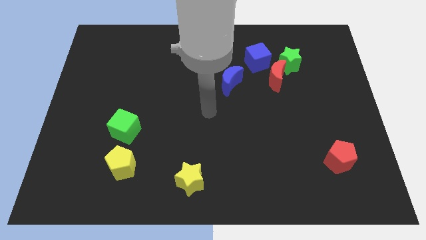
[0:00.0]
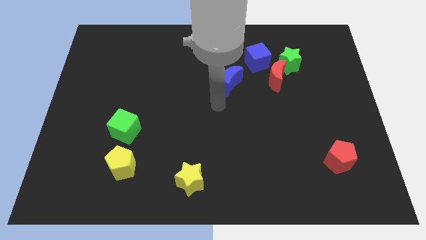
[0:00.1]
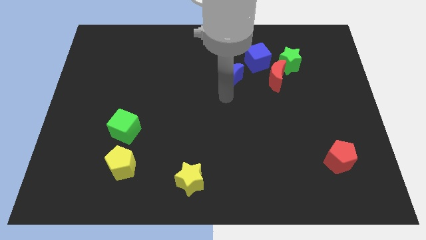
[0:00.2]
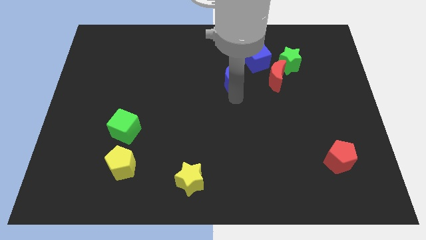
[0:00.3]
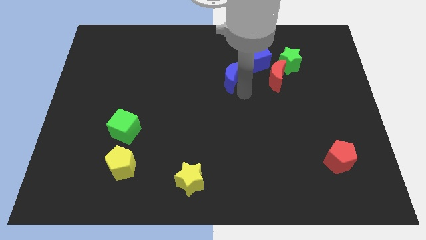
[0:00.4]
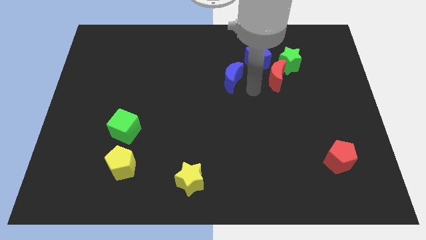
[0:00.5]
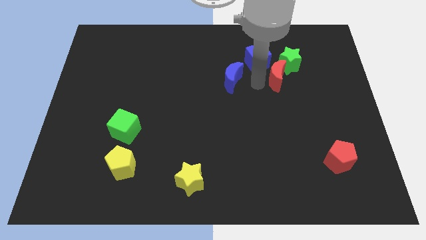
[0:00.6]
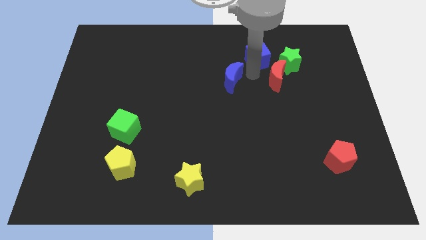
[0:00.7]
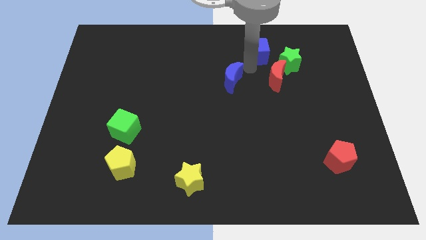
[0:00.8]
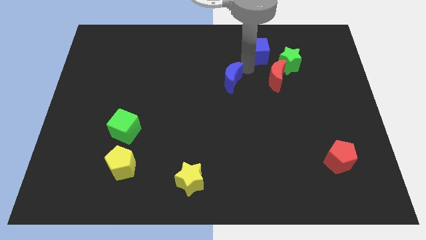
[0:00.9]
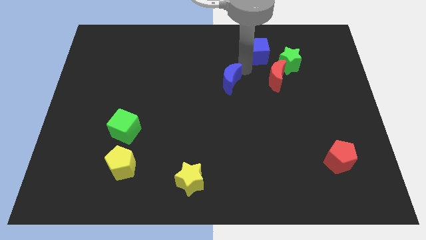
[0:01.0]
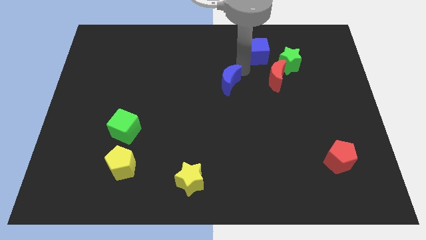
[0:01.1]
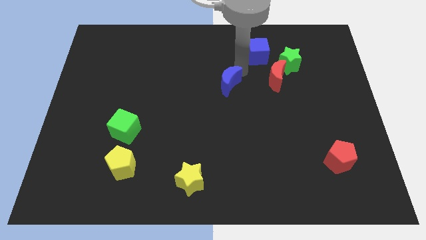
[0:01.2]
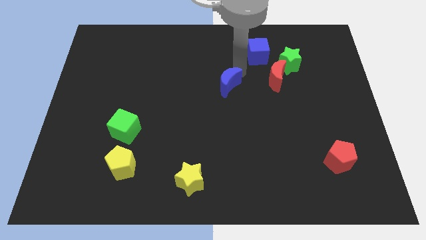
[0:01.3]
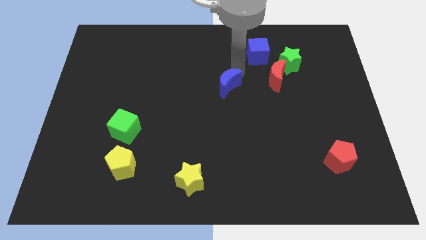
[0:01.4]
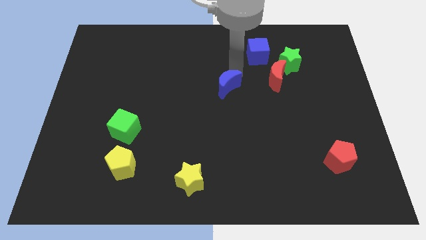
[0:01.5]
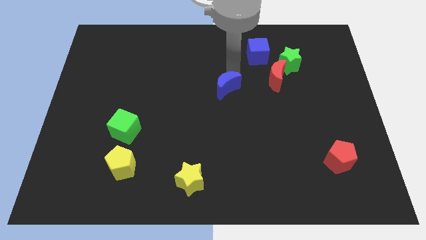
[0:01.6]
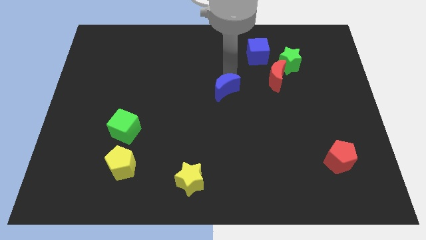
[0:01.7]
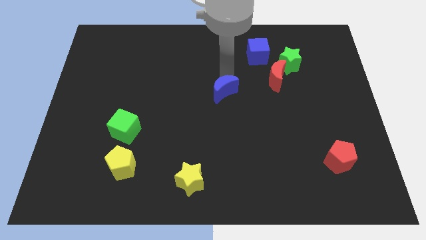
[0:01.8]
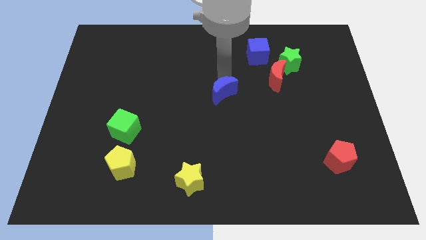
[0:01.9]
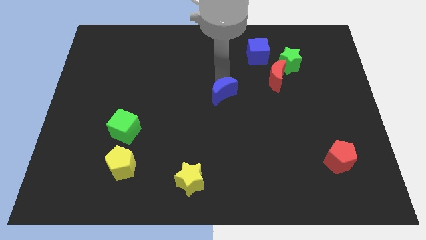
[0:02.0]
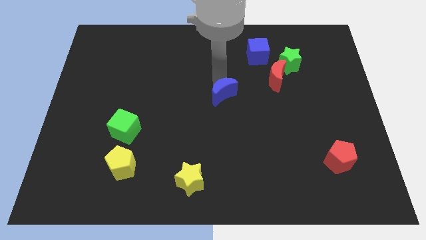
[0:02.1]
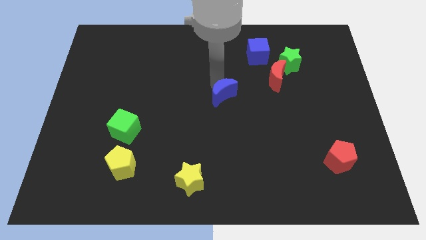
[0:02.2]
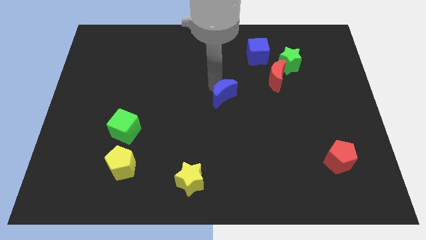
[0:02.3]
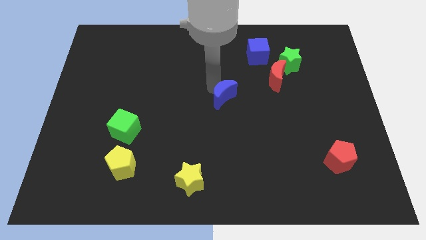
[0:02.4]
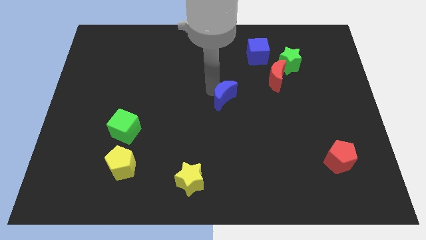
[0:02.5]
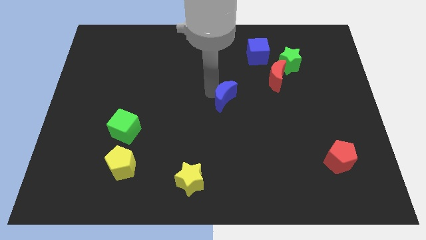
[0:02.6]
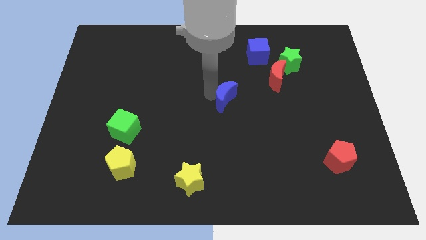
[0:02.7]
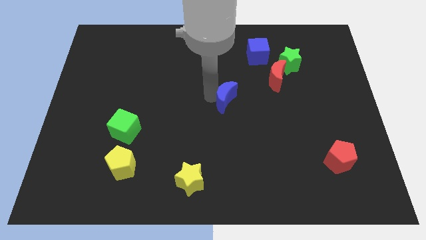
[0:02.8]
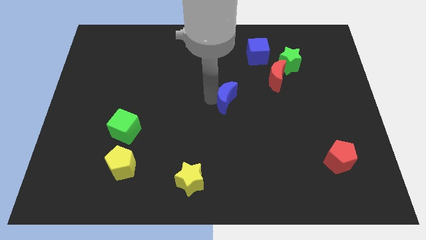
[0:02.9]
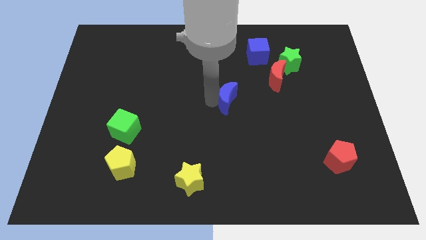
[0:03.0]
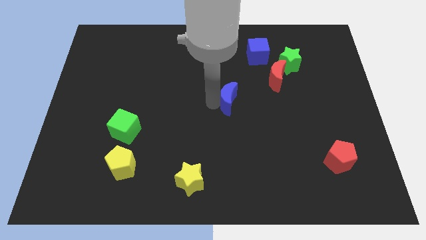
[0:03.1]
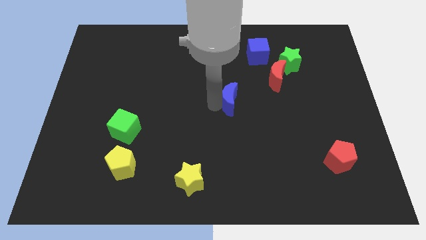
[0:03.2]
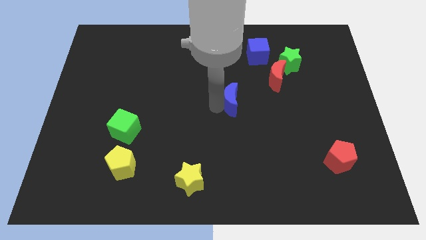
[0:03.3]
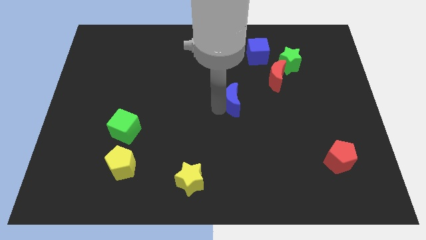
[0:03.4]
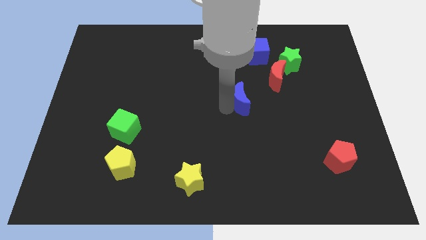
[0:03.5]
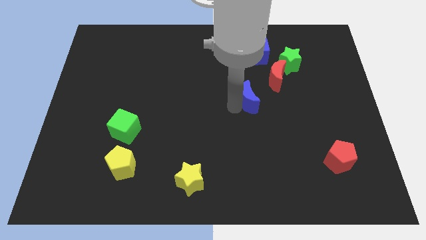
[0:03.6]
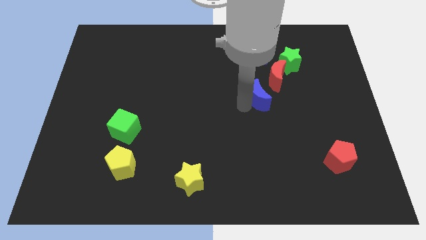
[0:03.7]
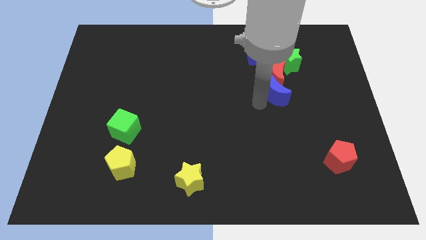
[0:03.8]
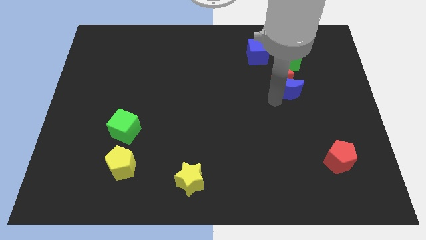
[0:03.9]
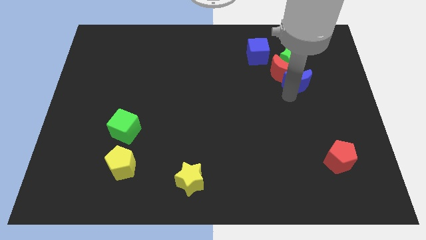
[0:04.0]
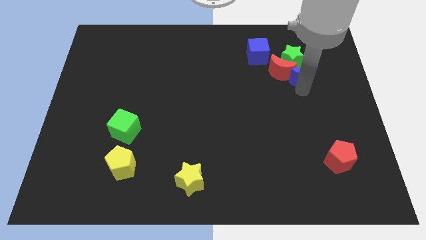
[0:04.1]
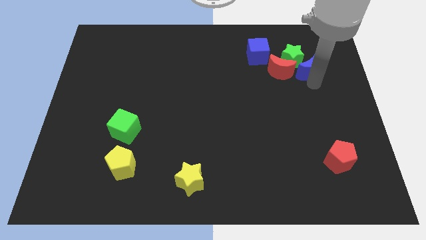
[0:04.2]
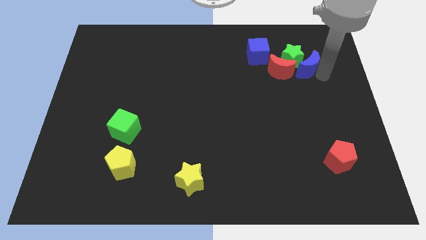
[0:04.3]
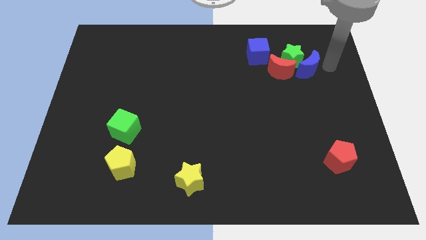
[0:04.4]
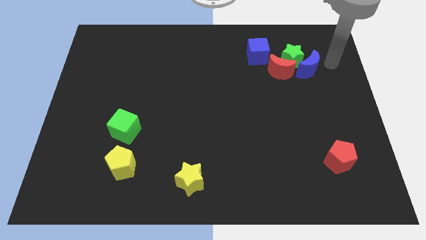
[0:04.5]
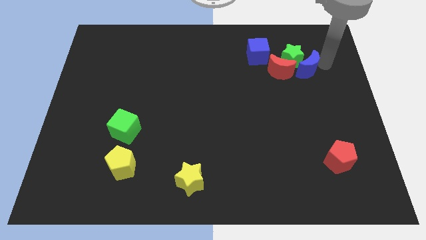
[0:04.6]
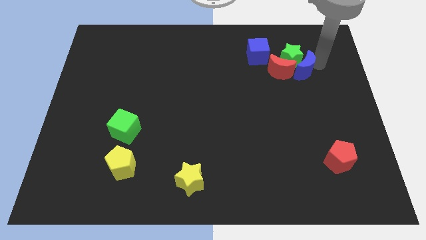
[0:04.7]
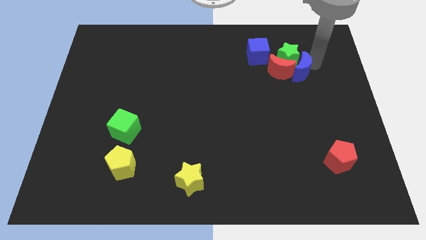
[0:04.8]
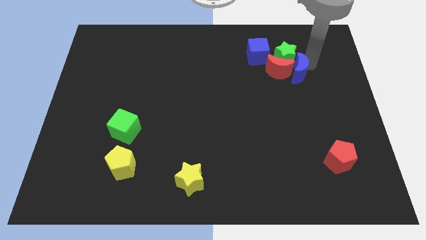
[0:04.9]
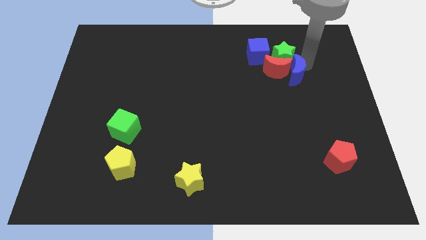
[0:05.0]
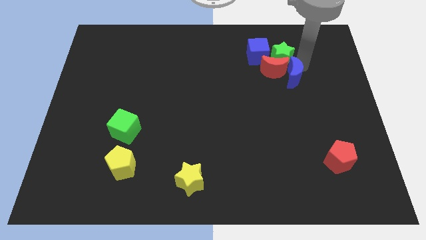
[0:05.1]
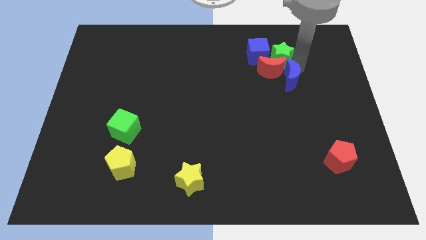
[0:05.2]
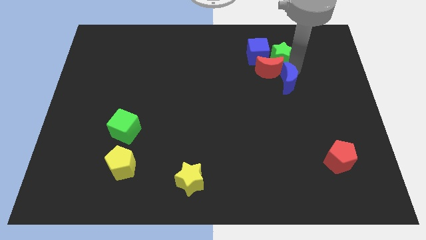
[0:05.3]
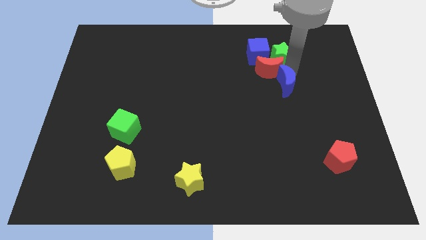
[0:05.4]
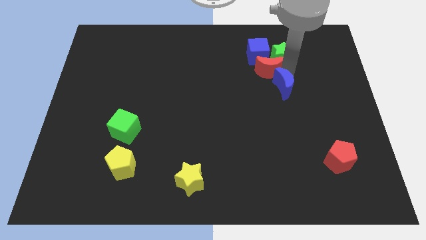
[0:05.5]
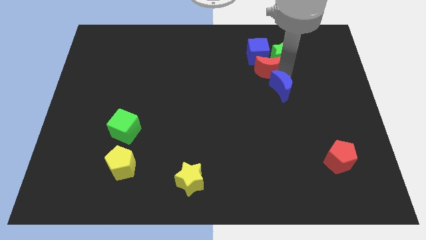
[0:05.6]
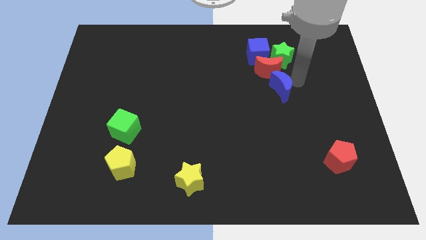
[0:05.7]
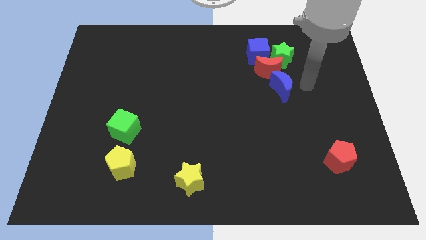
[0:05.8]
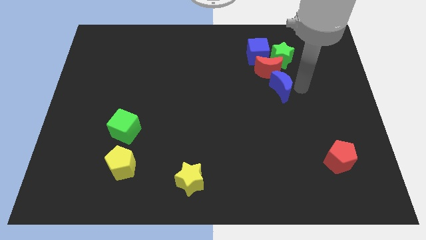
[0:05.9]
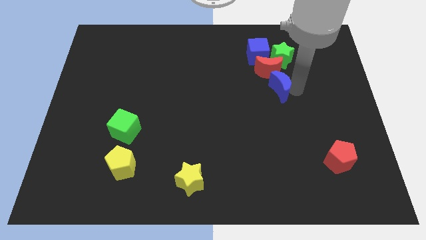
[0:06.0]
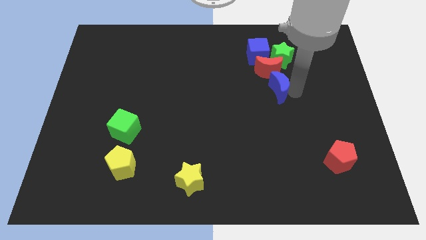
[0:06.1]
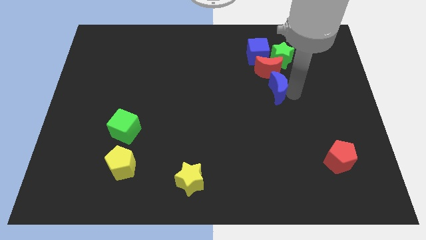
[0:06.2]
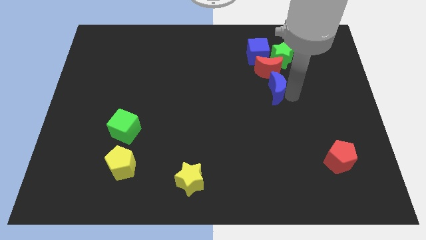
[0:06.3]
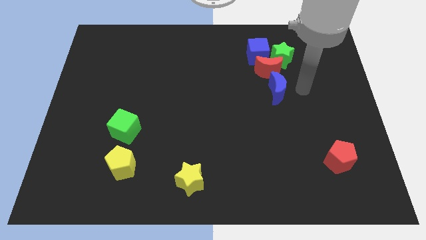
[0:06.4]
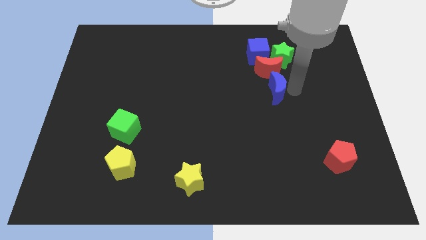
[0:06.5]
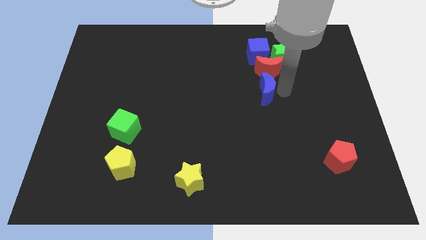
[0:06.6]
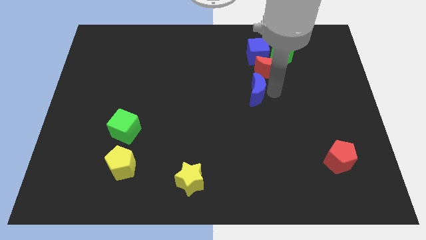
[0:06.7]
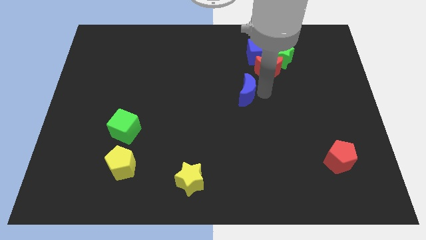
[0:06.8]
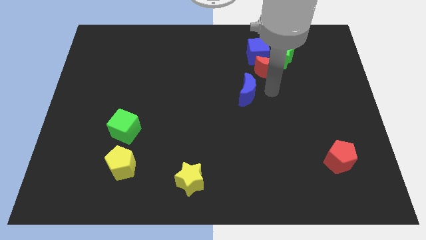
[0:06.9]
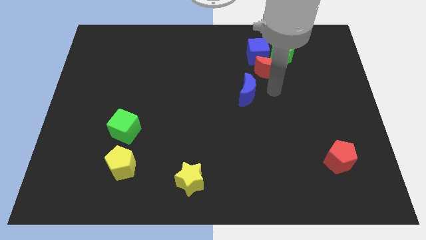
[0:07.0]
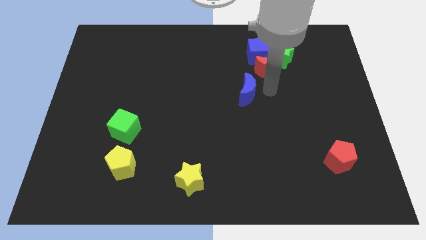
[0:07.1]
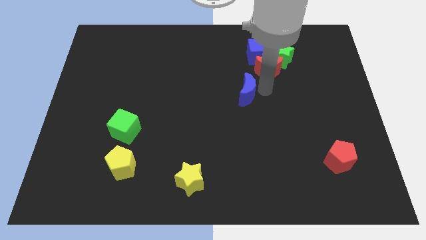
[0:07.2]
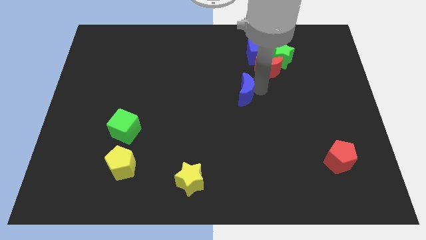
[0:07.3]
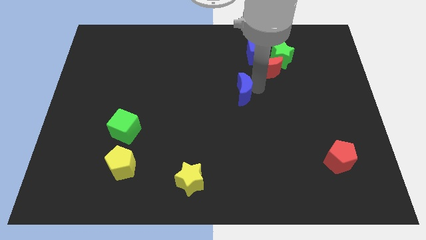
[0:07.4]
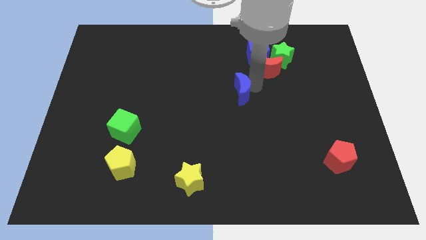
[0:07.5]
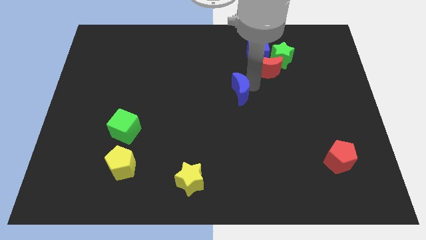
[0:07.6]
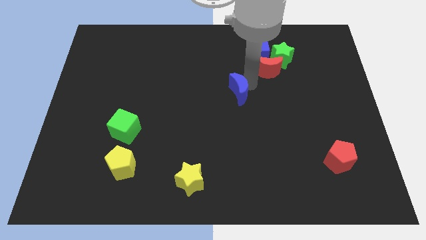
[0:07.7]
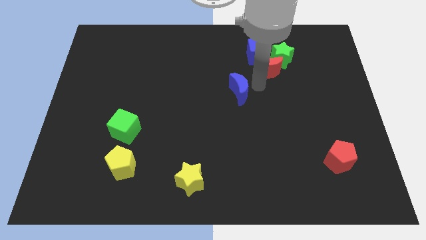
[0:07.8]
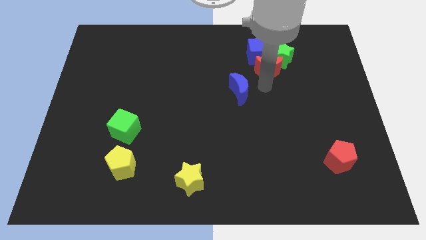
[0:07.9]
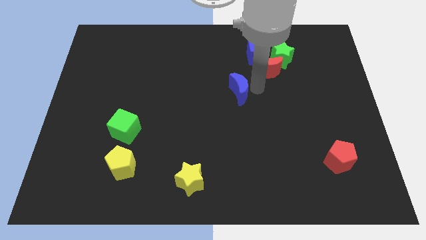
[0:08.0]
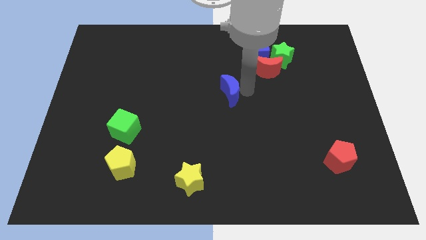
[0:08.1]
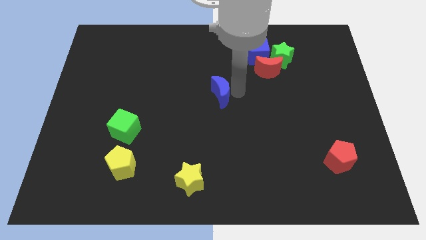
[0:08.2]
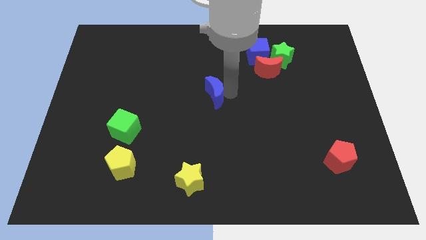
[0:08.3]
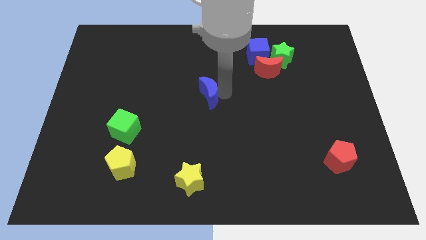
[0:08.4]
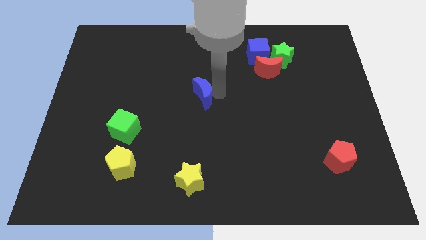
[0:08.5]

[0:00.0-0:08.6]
move the blue moon downwards and to the left diagonally a bit
